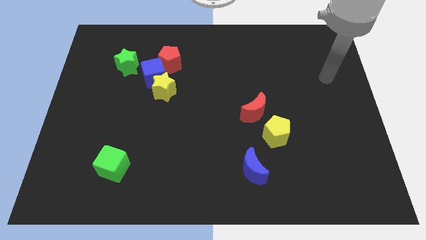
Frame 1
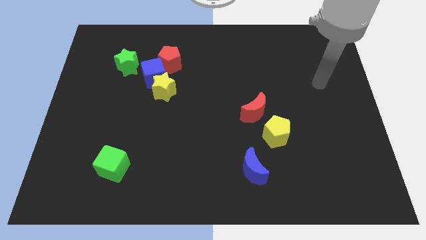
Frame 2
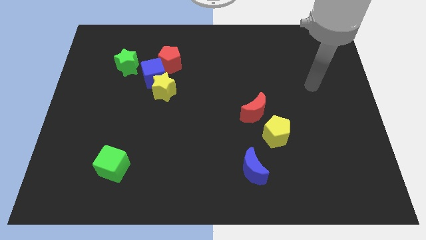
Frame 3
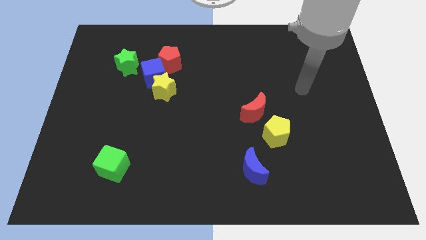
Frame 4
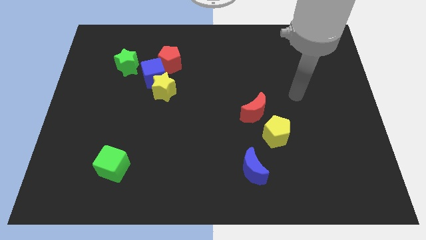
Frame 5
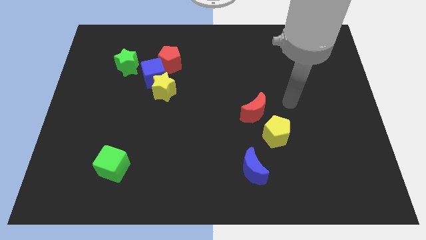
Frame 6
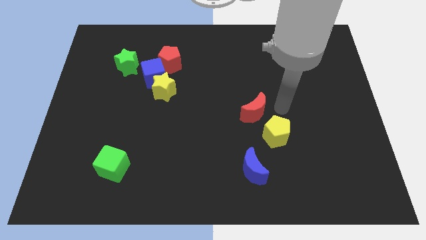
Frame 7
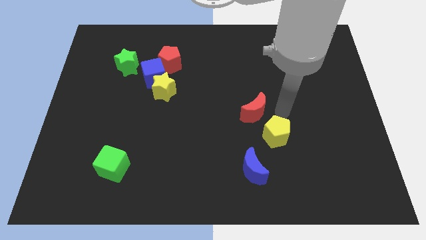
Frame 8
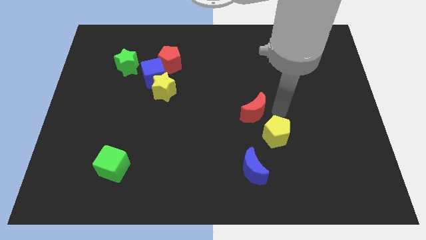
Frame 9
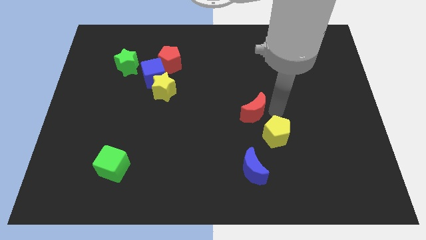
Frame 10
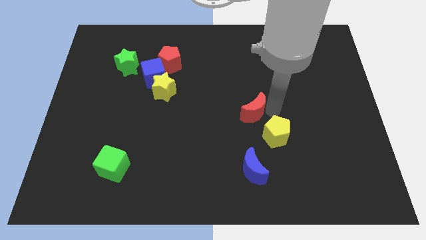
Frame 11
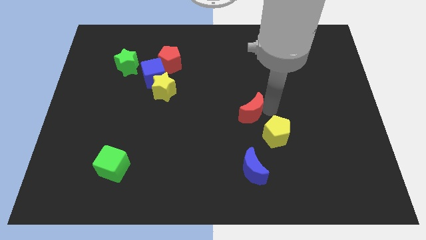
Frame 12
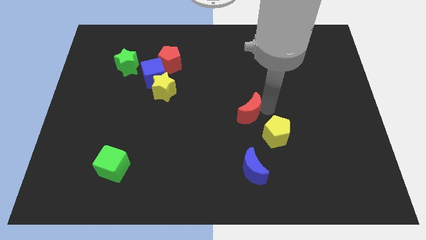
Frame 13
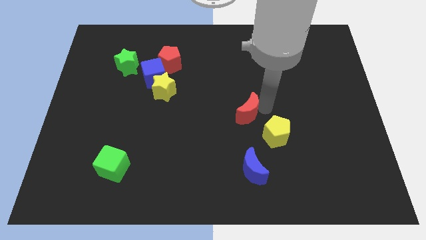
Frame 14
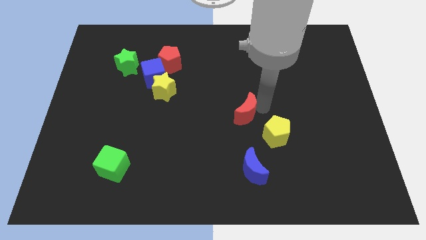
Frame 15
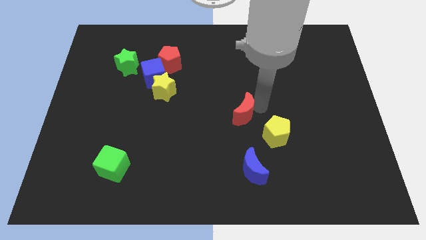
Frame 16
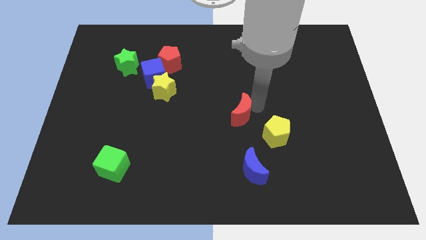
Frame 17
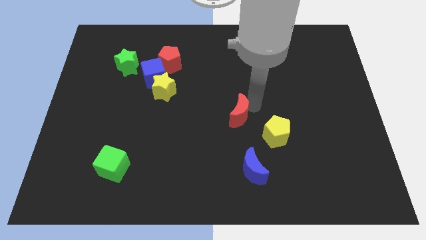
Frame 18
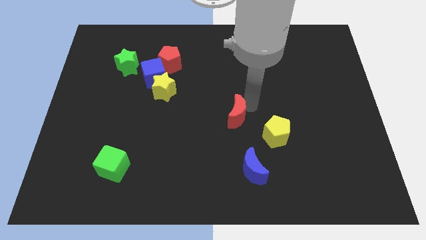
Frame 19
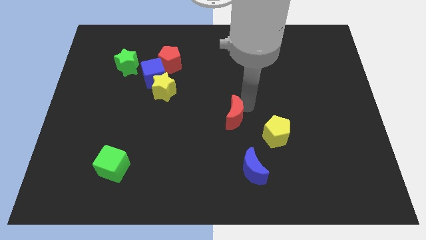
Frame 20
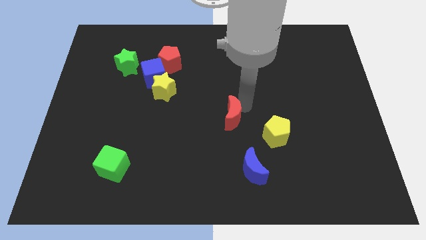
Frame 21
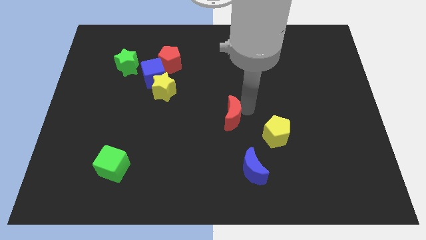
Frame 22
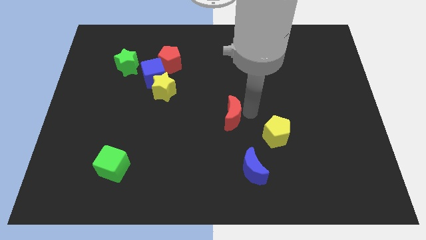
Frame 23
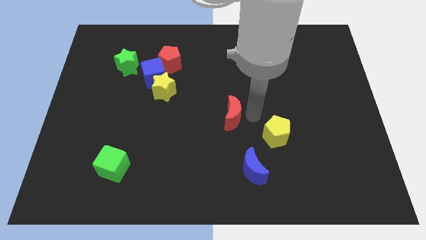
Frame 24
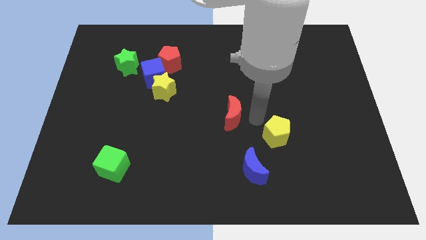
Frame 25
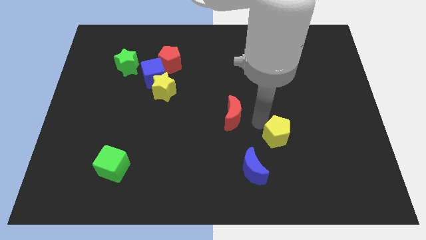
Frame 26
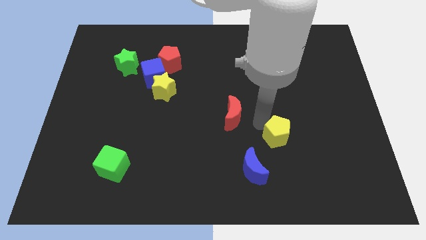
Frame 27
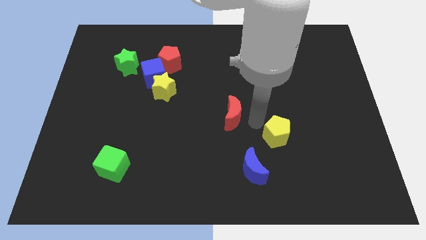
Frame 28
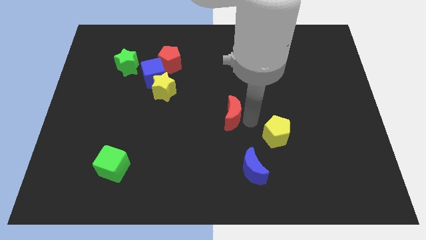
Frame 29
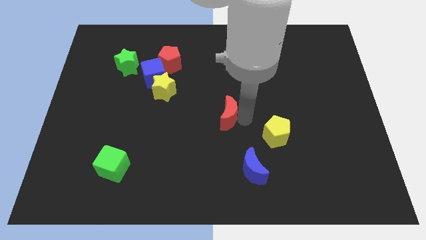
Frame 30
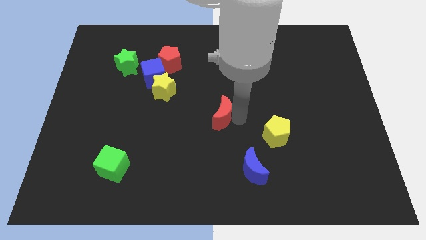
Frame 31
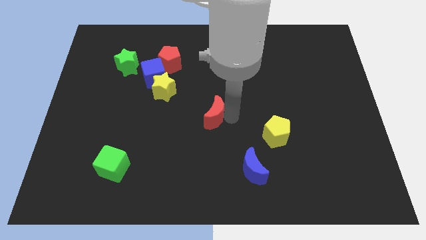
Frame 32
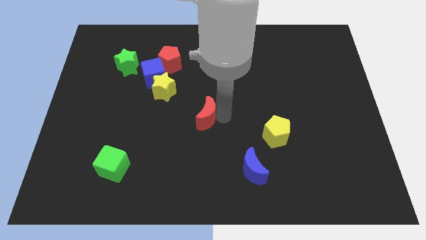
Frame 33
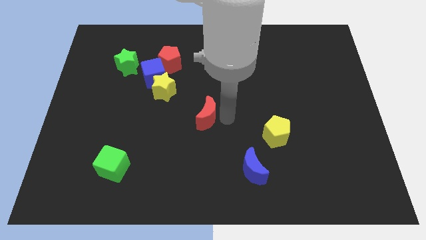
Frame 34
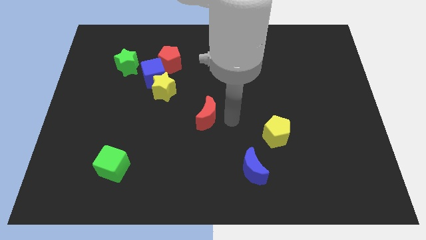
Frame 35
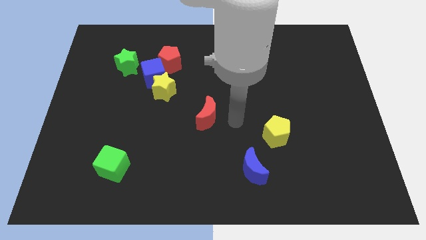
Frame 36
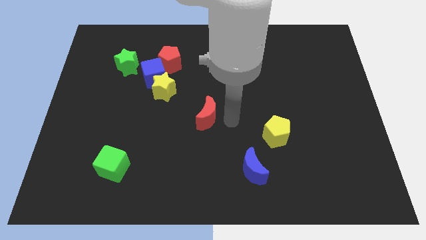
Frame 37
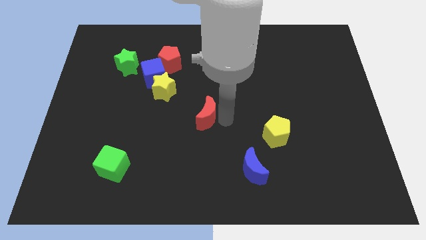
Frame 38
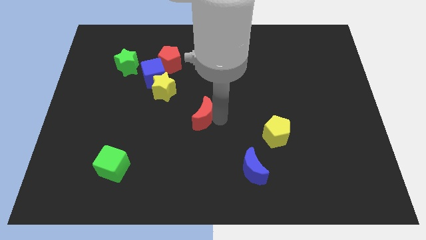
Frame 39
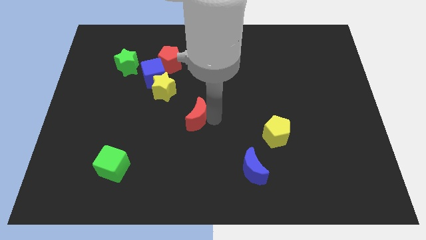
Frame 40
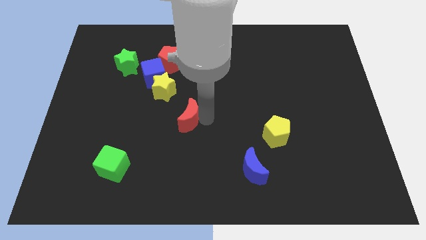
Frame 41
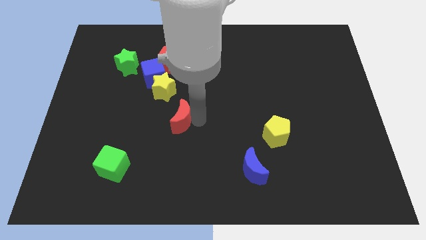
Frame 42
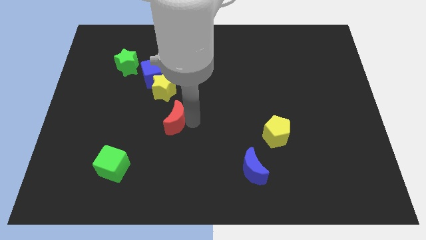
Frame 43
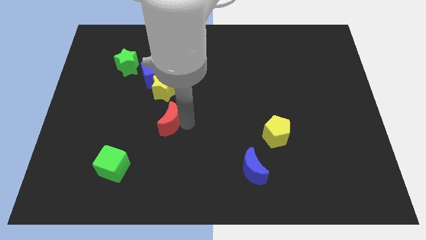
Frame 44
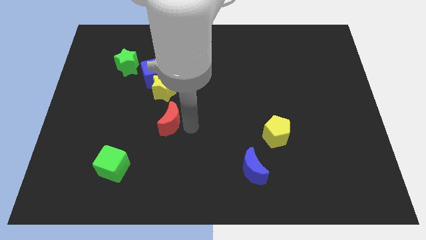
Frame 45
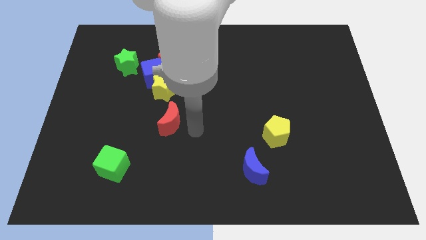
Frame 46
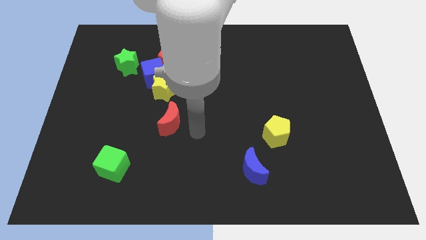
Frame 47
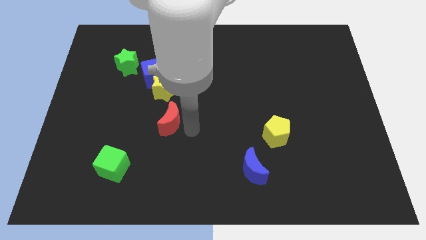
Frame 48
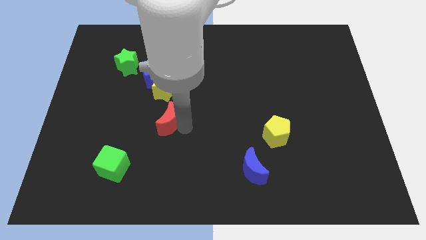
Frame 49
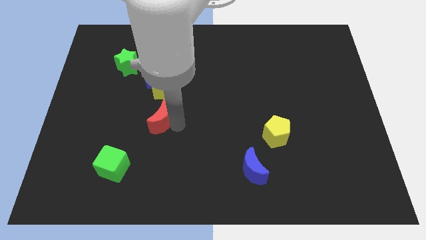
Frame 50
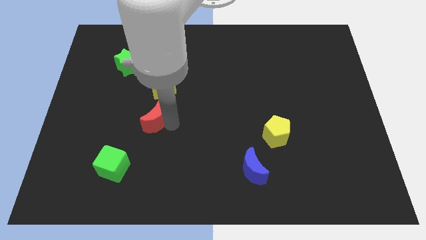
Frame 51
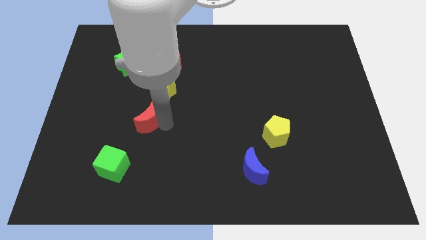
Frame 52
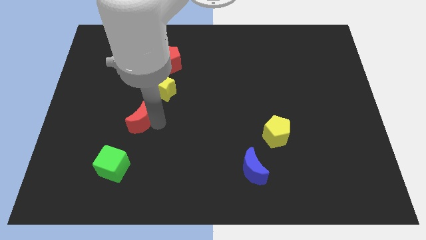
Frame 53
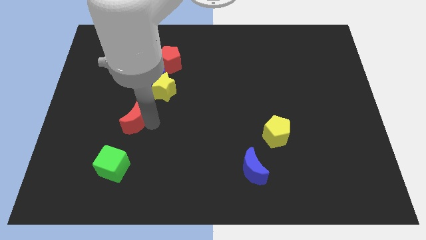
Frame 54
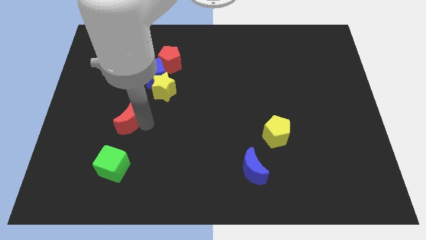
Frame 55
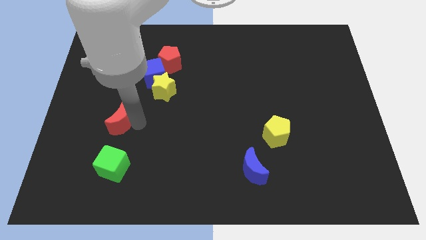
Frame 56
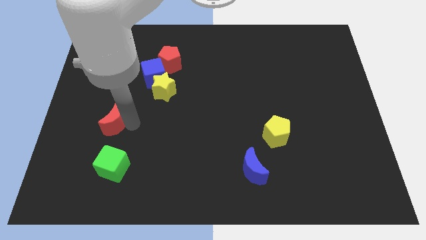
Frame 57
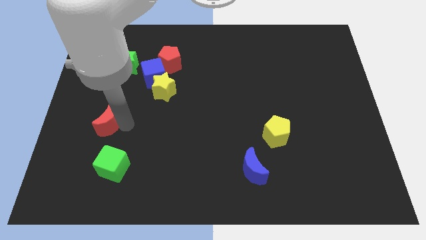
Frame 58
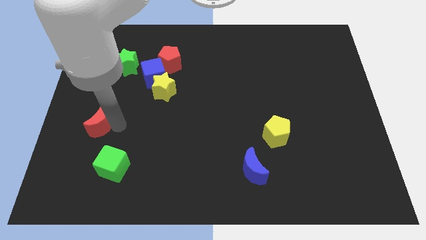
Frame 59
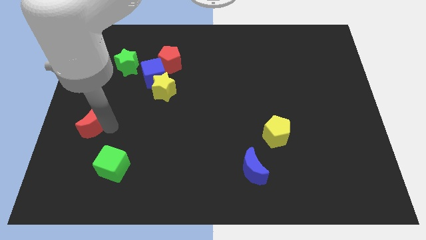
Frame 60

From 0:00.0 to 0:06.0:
move the red moon to the left side of the board

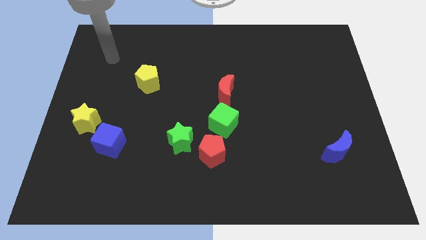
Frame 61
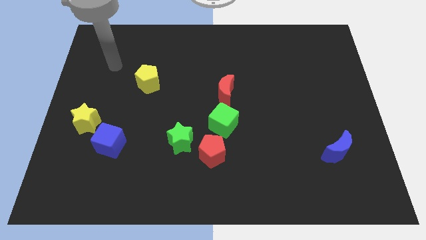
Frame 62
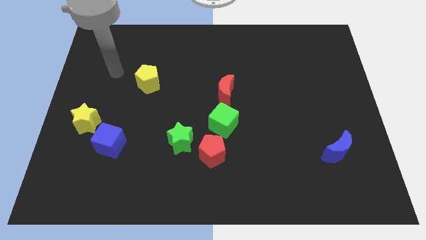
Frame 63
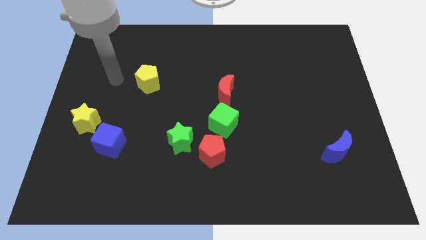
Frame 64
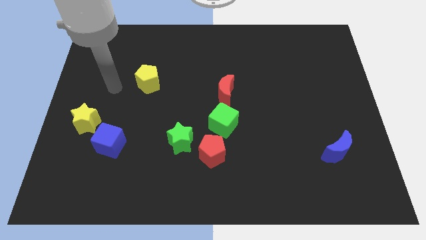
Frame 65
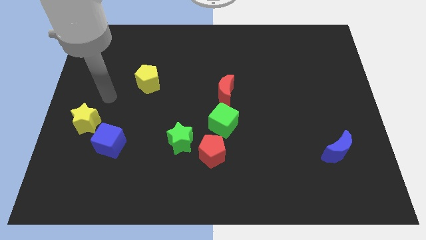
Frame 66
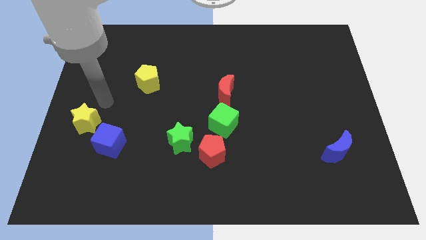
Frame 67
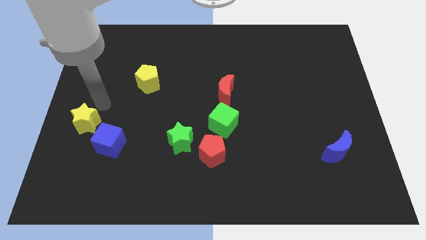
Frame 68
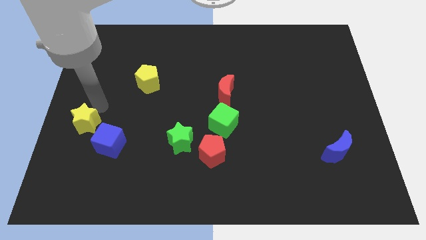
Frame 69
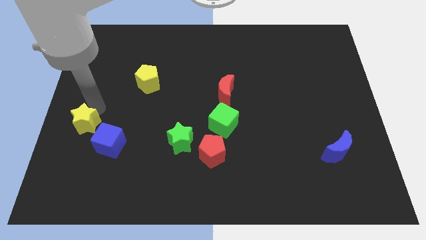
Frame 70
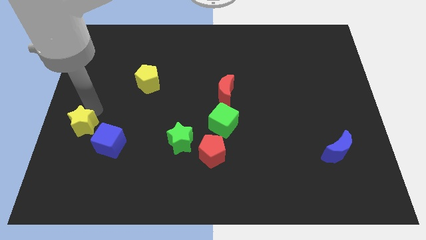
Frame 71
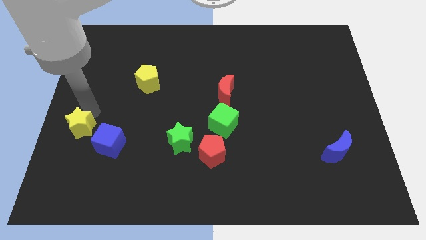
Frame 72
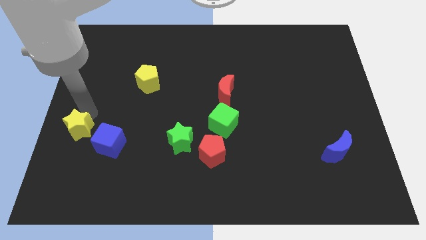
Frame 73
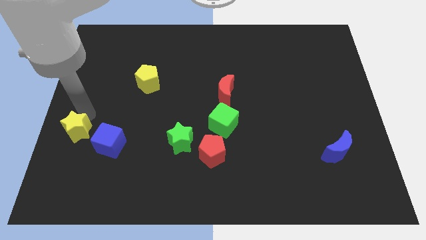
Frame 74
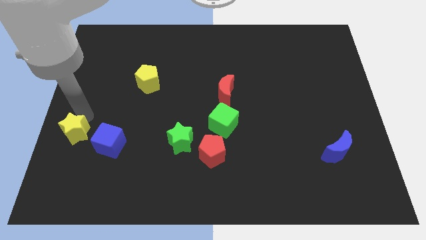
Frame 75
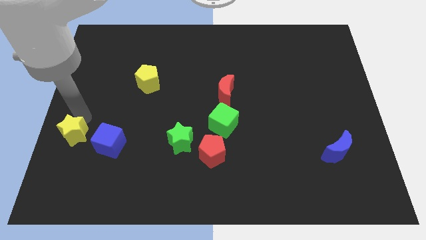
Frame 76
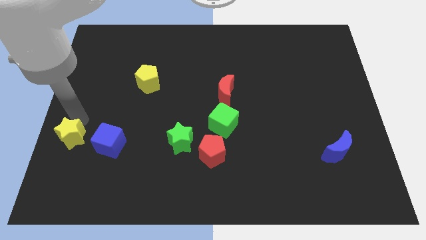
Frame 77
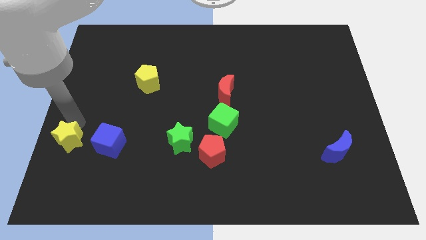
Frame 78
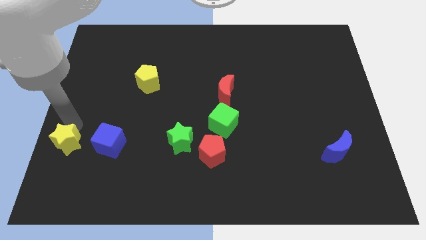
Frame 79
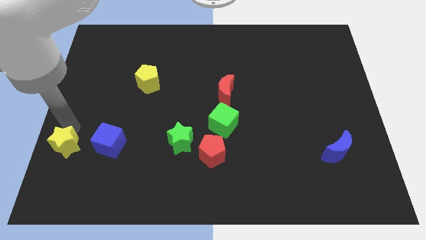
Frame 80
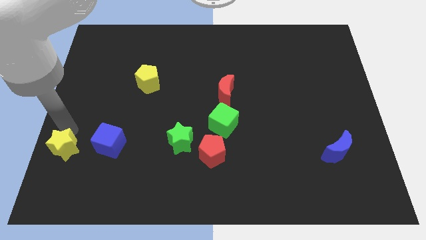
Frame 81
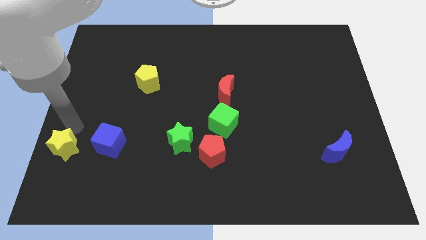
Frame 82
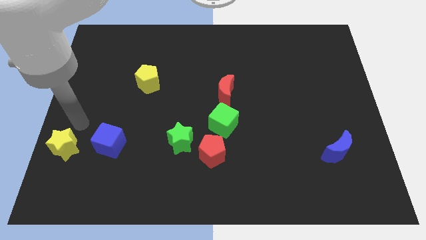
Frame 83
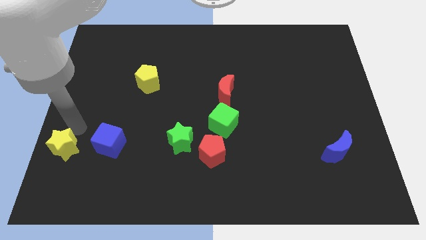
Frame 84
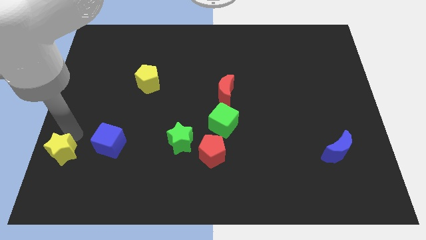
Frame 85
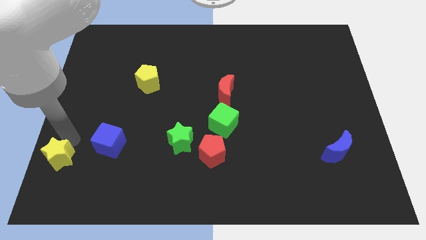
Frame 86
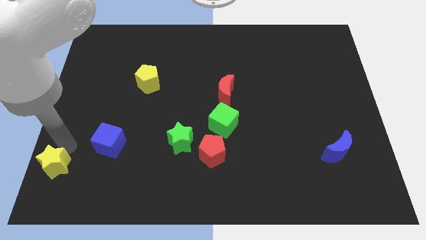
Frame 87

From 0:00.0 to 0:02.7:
slide the yellow star to the bottom left
